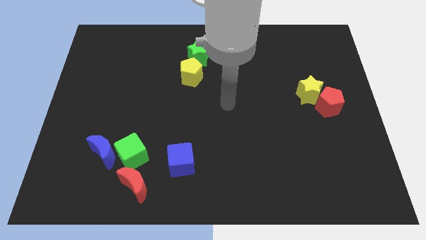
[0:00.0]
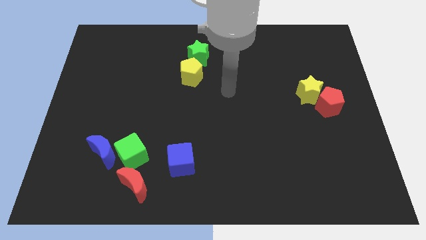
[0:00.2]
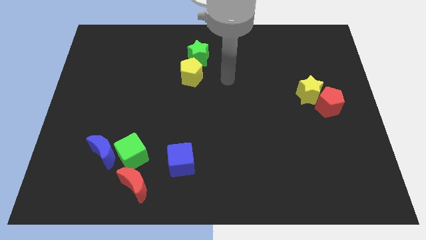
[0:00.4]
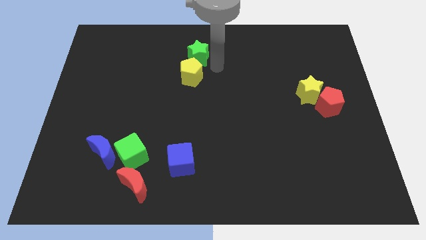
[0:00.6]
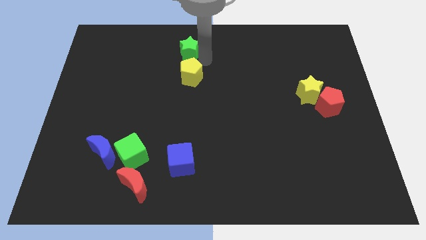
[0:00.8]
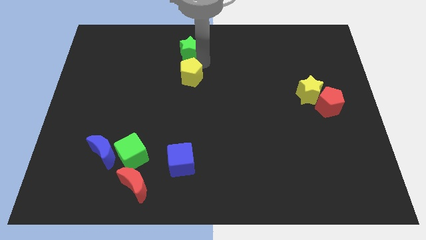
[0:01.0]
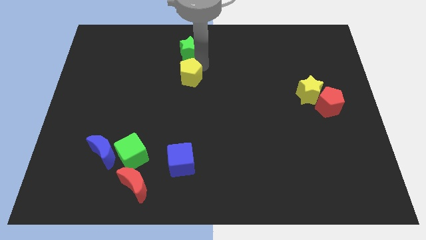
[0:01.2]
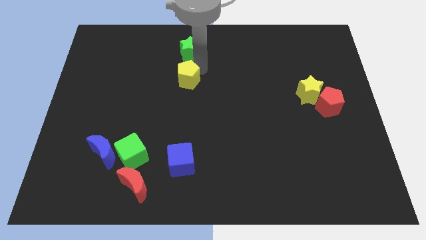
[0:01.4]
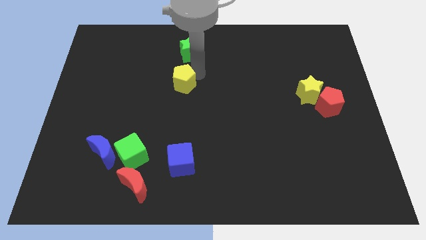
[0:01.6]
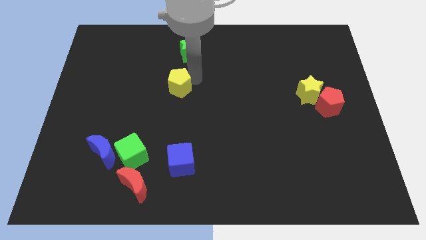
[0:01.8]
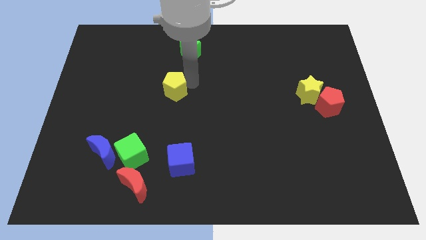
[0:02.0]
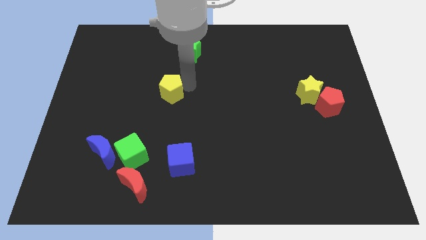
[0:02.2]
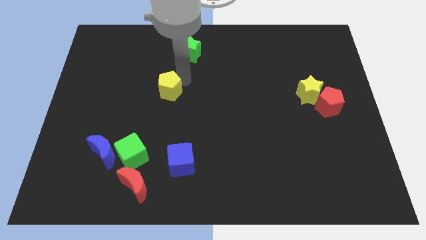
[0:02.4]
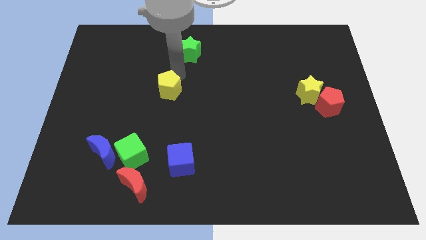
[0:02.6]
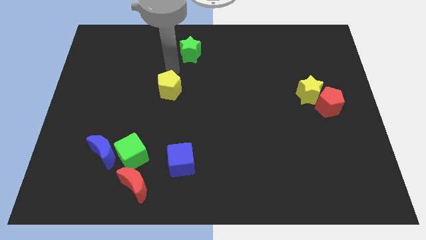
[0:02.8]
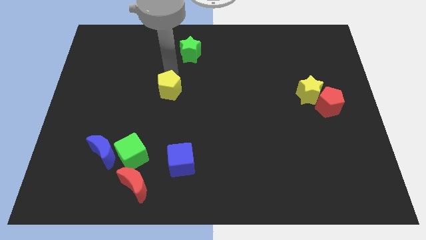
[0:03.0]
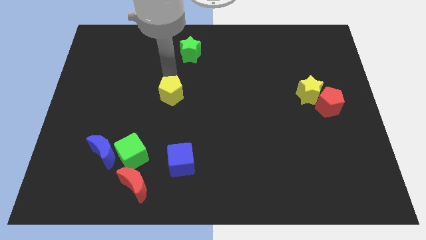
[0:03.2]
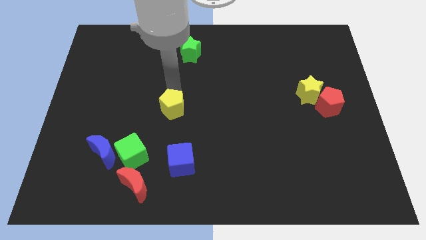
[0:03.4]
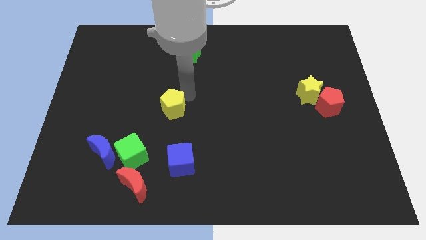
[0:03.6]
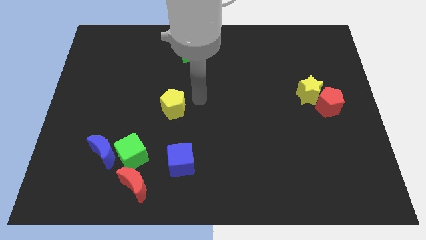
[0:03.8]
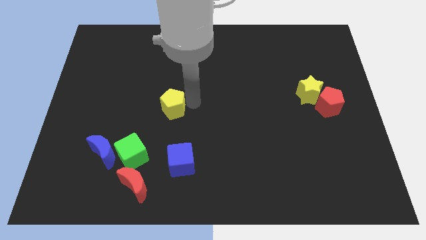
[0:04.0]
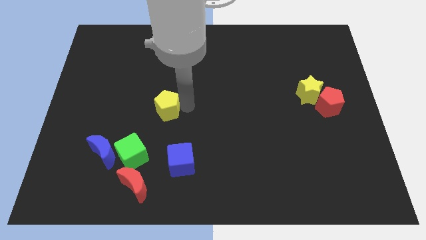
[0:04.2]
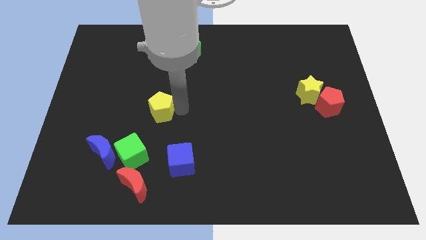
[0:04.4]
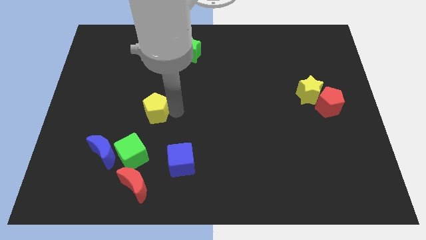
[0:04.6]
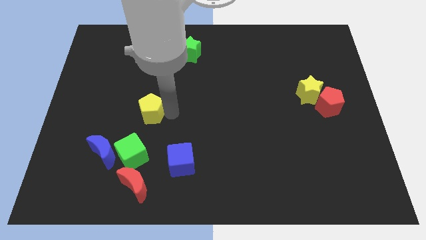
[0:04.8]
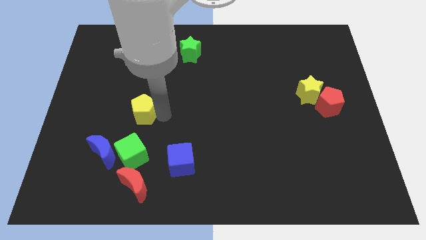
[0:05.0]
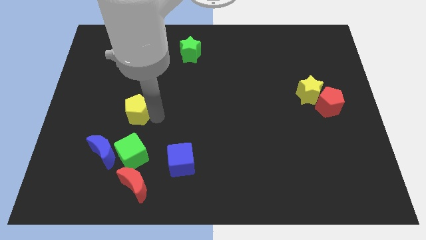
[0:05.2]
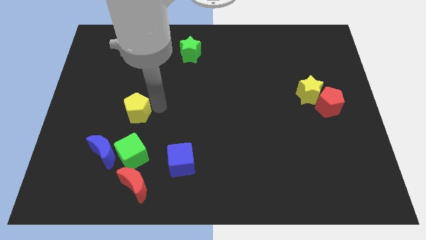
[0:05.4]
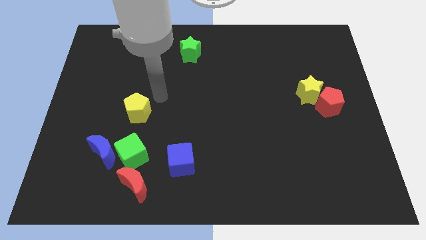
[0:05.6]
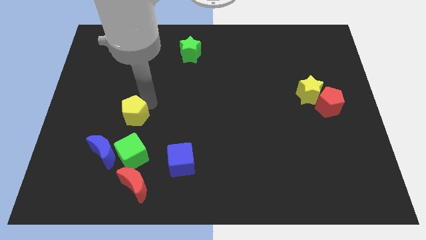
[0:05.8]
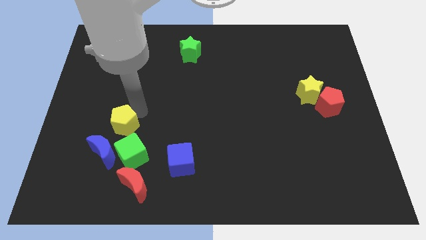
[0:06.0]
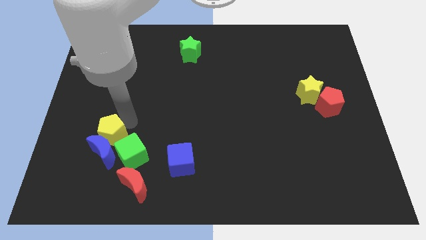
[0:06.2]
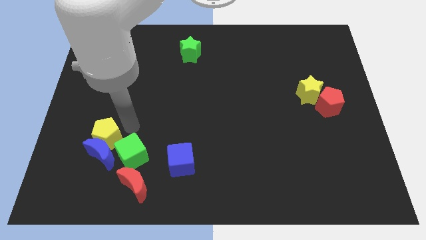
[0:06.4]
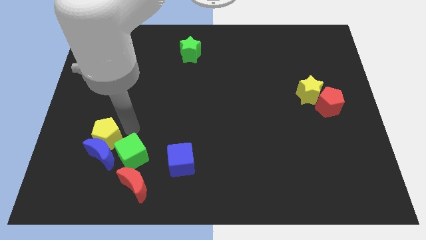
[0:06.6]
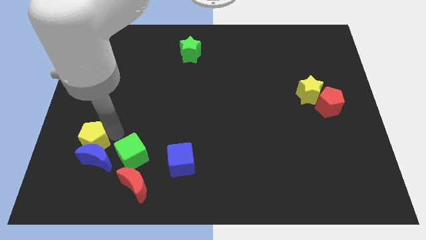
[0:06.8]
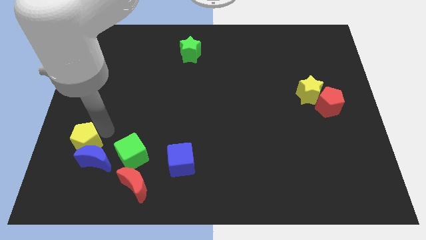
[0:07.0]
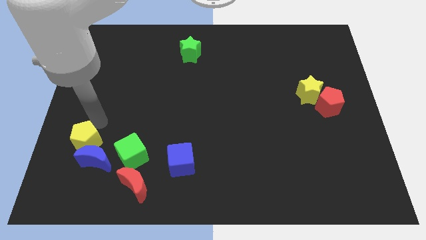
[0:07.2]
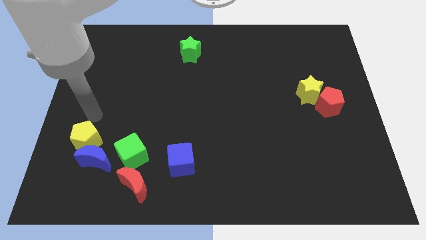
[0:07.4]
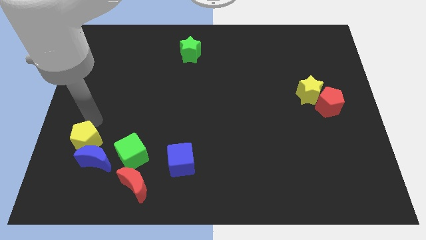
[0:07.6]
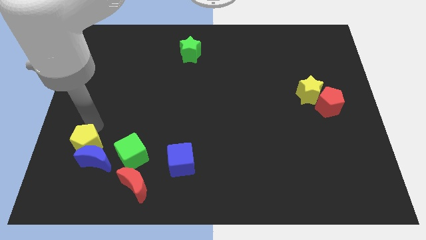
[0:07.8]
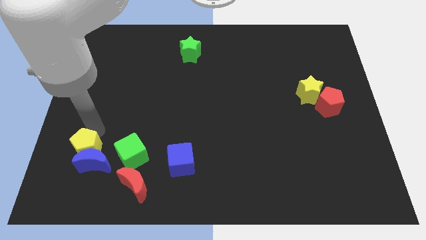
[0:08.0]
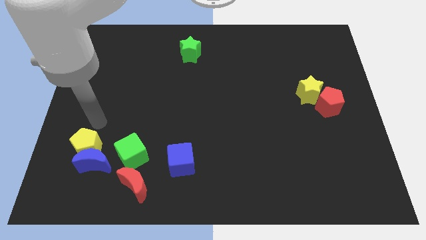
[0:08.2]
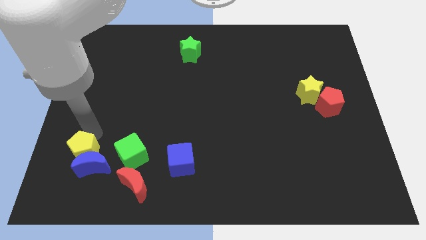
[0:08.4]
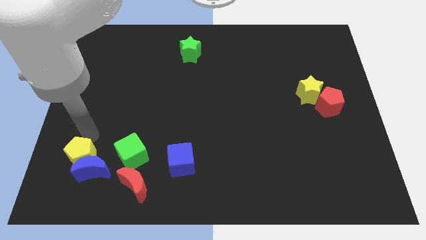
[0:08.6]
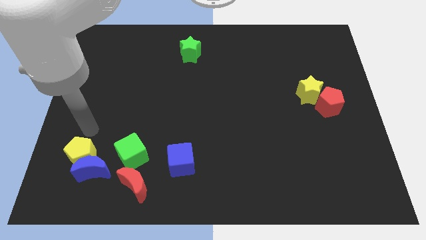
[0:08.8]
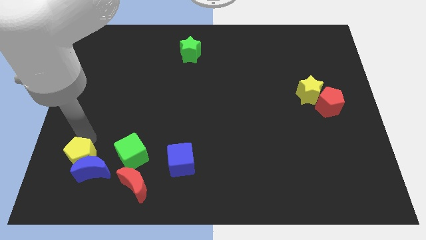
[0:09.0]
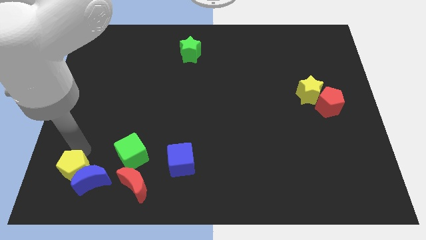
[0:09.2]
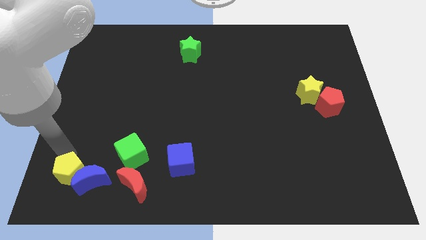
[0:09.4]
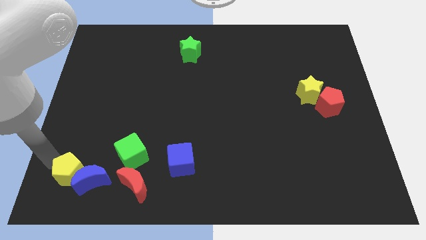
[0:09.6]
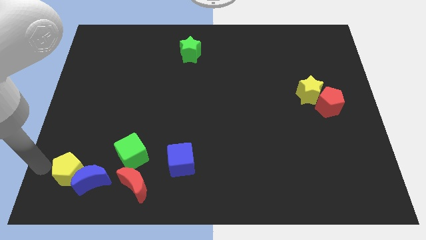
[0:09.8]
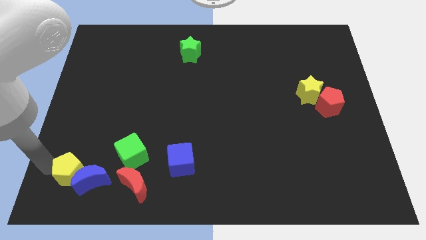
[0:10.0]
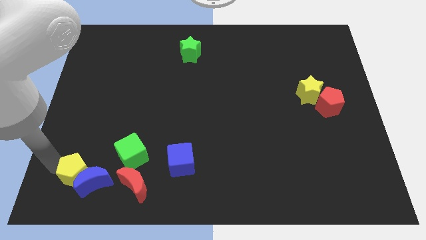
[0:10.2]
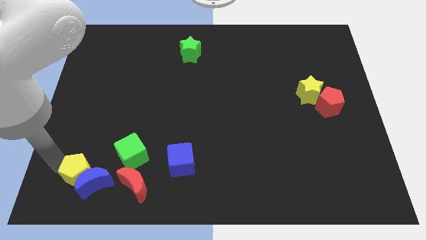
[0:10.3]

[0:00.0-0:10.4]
push the yellow pentagon to the bottom left side of the green cube

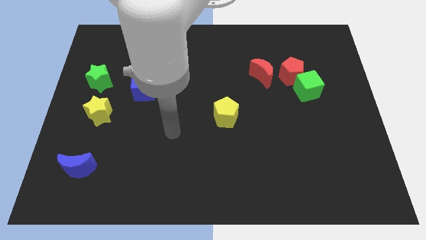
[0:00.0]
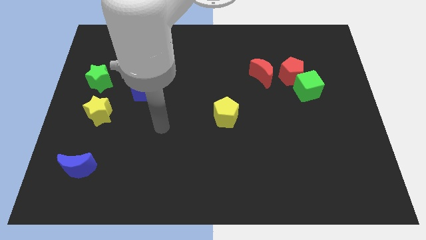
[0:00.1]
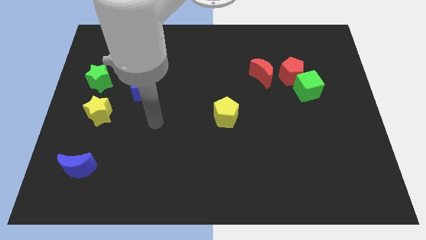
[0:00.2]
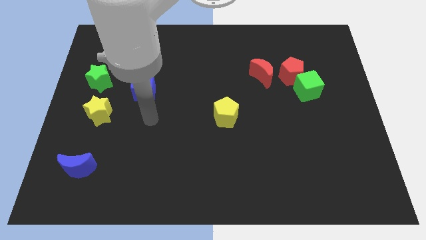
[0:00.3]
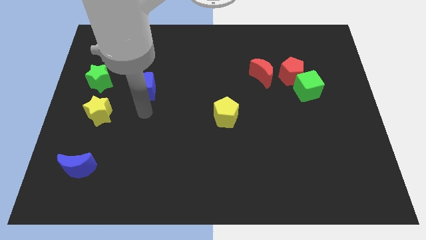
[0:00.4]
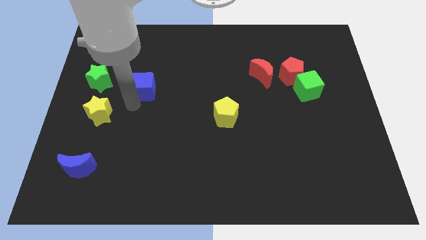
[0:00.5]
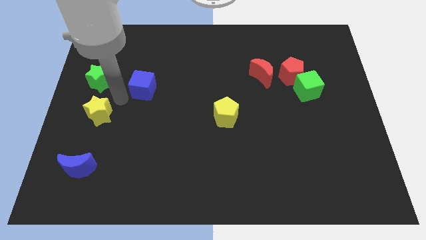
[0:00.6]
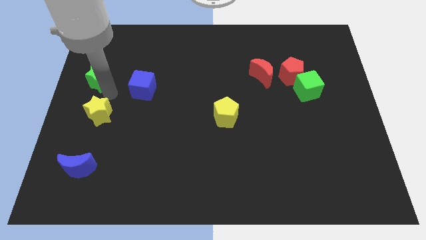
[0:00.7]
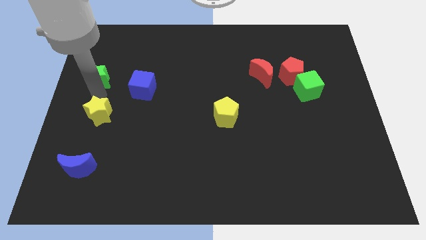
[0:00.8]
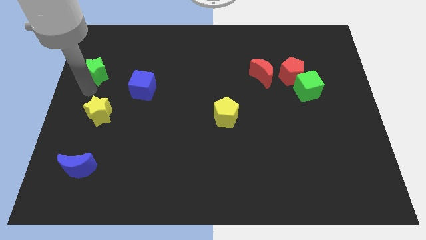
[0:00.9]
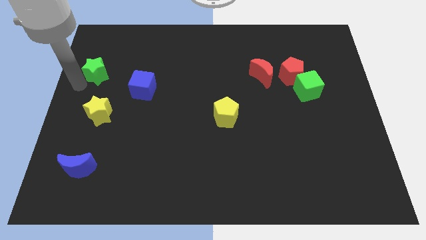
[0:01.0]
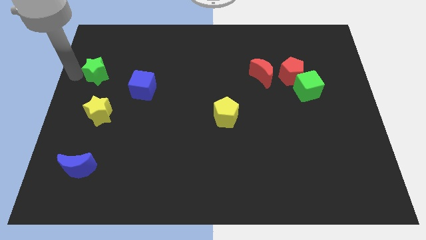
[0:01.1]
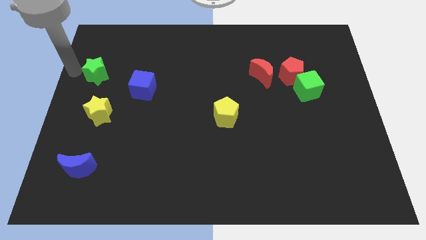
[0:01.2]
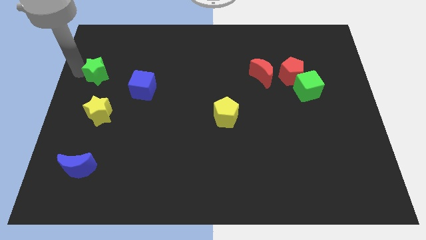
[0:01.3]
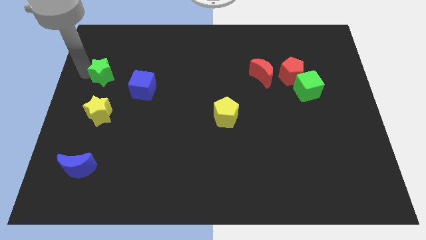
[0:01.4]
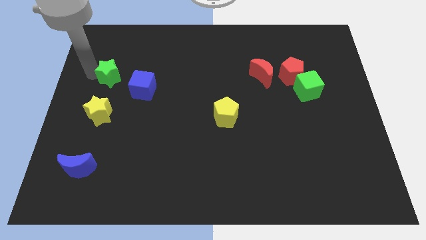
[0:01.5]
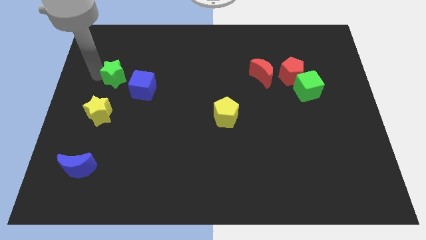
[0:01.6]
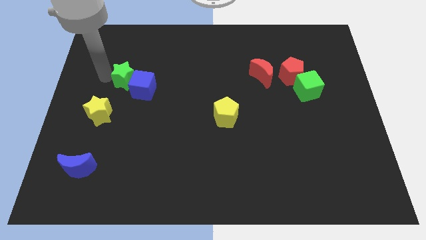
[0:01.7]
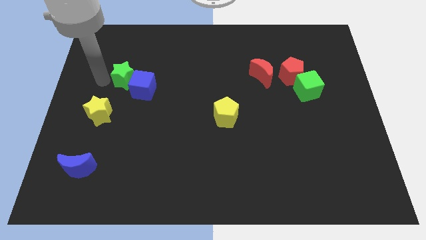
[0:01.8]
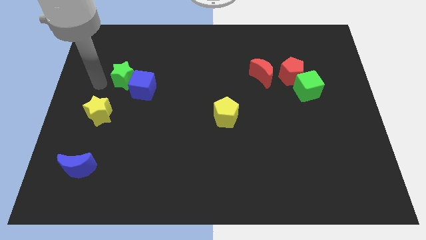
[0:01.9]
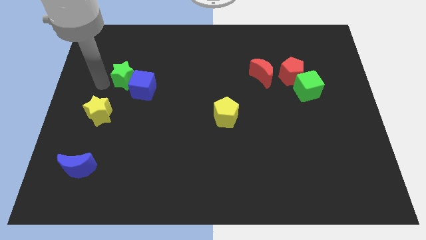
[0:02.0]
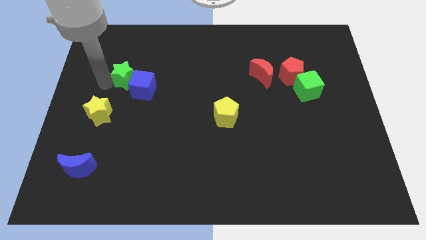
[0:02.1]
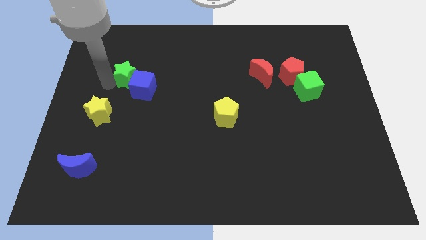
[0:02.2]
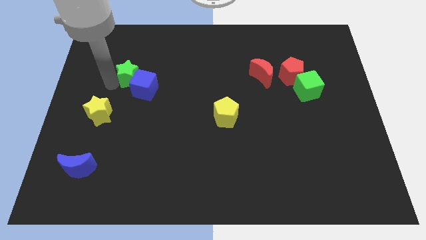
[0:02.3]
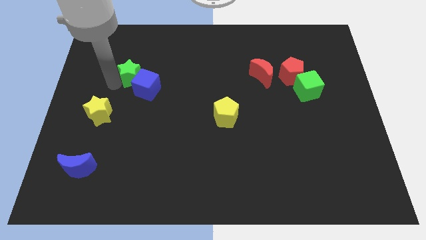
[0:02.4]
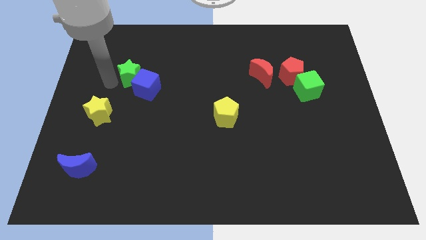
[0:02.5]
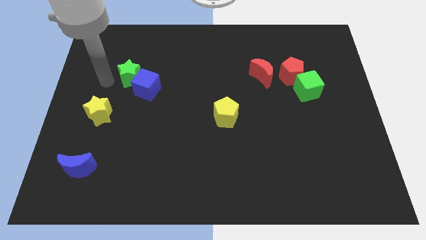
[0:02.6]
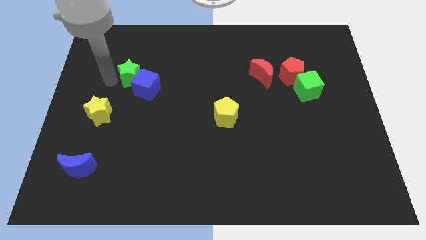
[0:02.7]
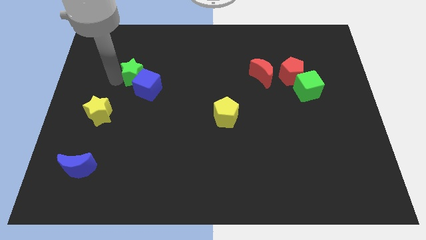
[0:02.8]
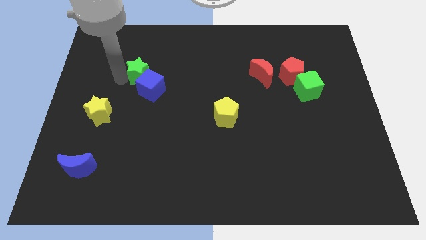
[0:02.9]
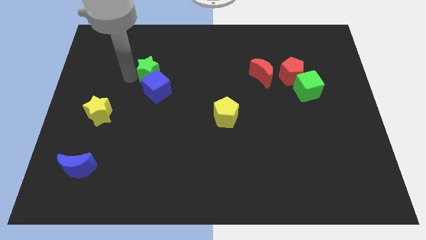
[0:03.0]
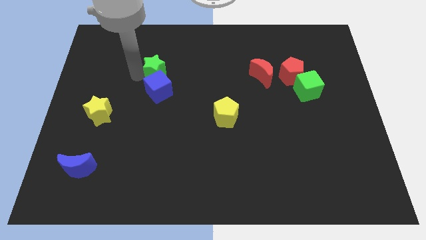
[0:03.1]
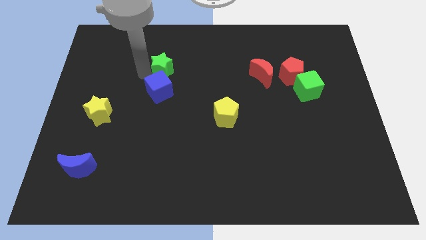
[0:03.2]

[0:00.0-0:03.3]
push the green star to the top right side of the blue cube
